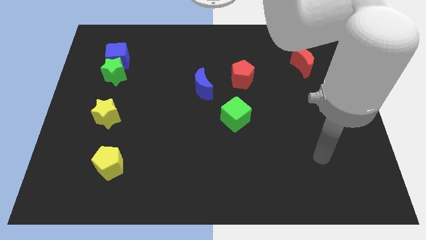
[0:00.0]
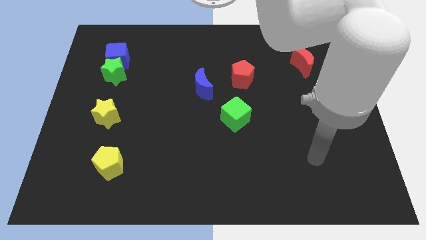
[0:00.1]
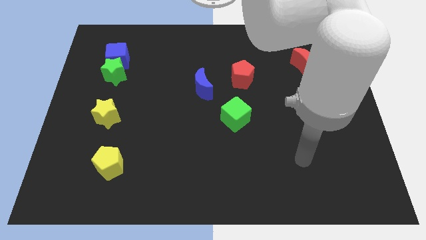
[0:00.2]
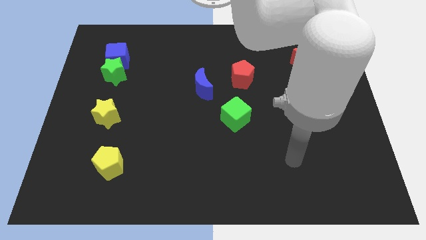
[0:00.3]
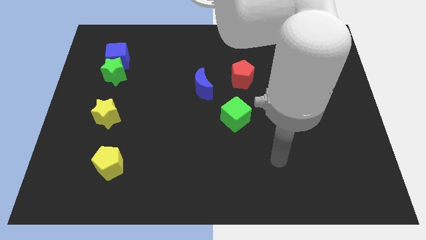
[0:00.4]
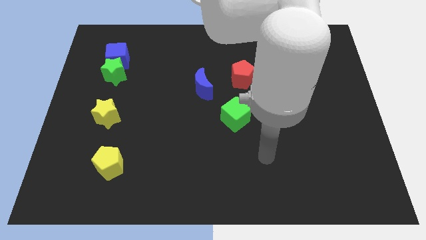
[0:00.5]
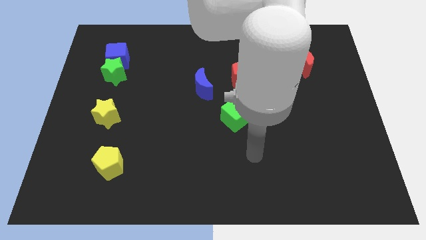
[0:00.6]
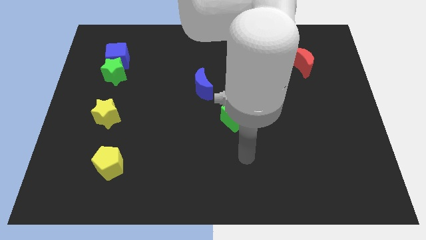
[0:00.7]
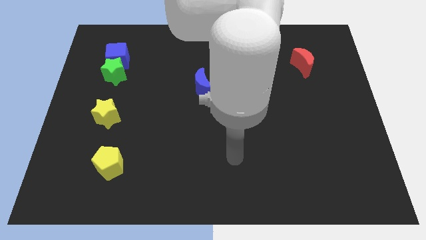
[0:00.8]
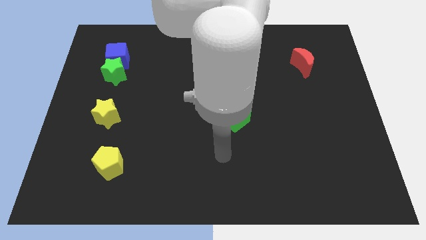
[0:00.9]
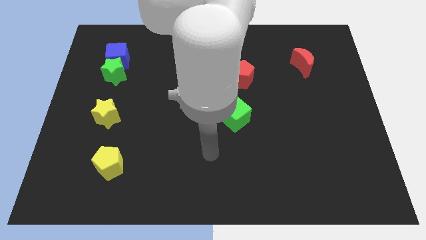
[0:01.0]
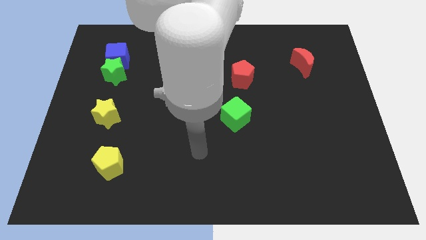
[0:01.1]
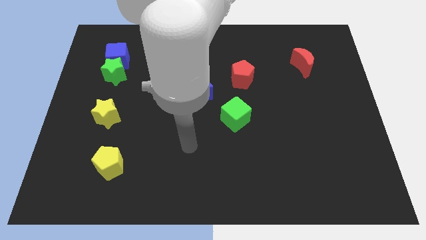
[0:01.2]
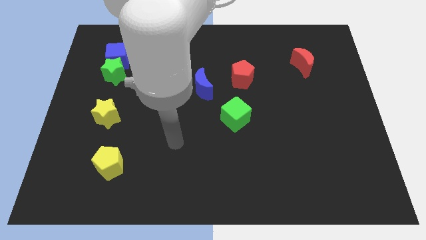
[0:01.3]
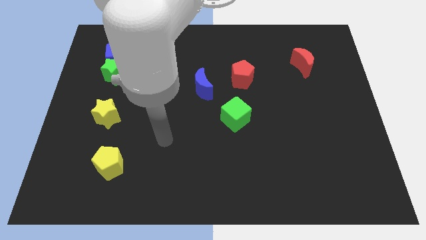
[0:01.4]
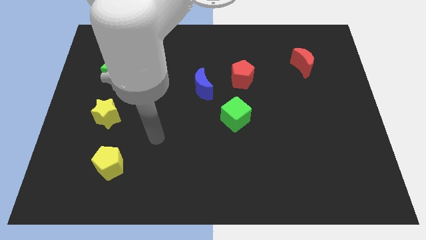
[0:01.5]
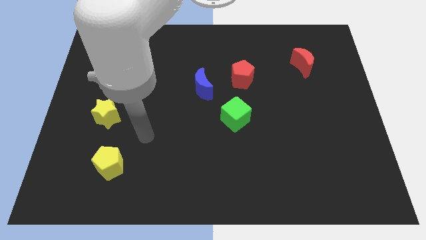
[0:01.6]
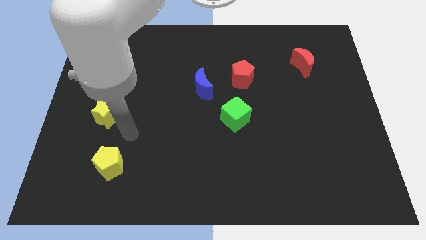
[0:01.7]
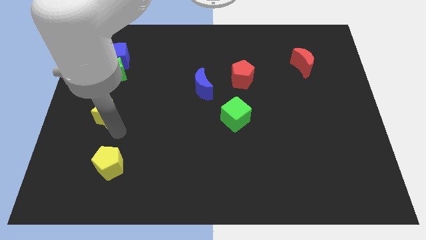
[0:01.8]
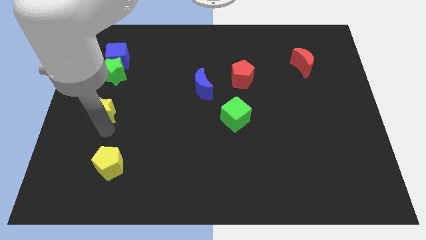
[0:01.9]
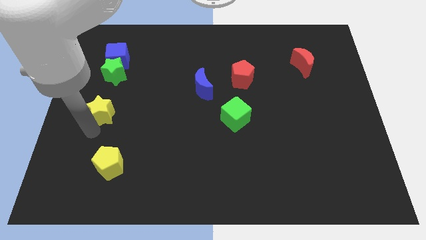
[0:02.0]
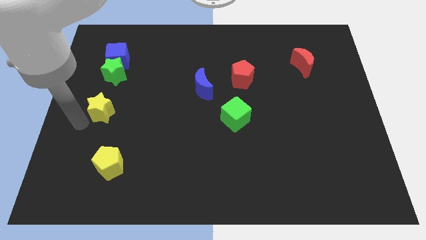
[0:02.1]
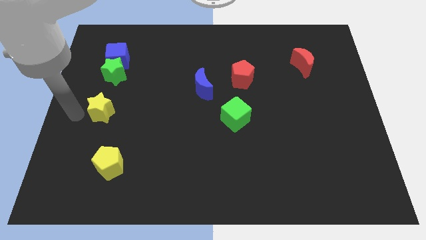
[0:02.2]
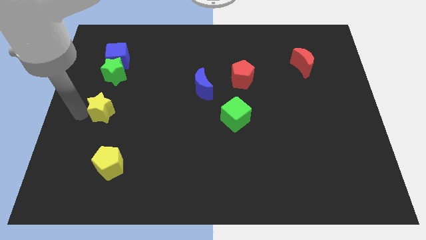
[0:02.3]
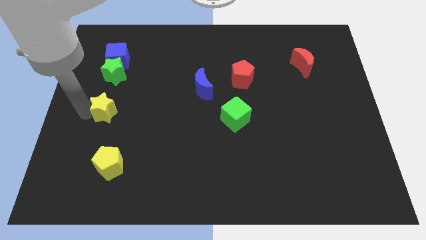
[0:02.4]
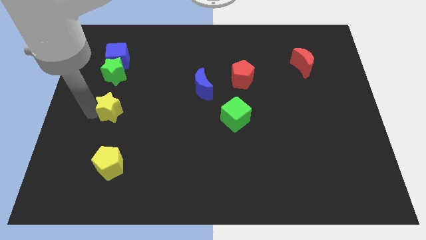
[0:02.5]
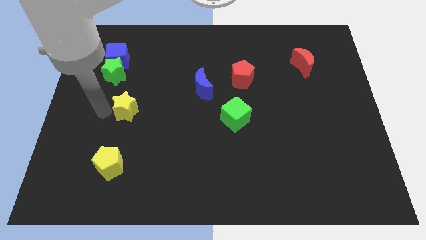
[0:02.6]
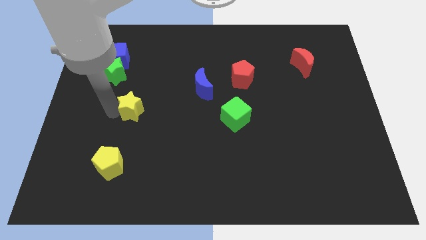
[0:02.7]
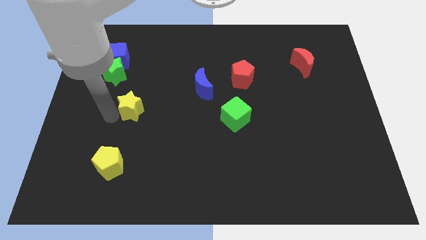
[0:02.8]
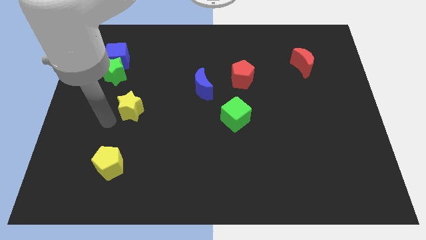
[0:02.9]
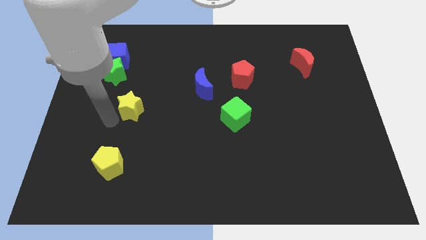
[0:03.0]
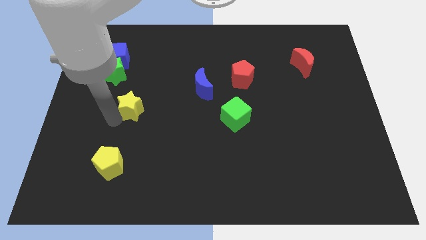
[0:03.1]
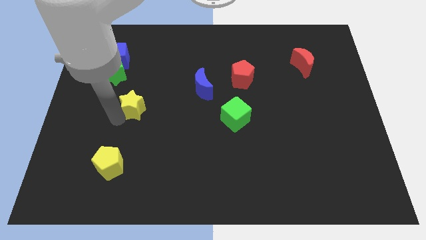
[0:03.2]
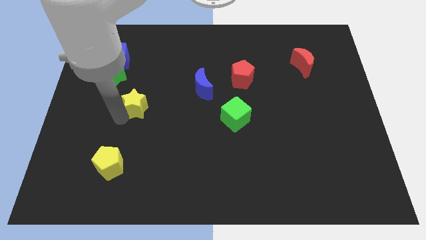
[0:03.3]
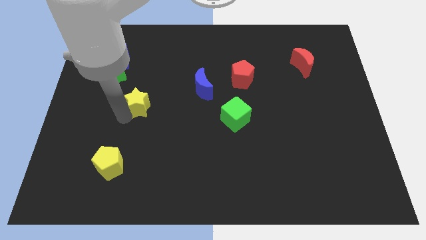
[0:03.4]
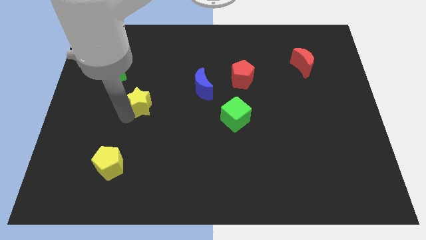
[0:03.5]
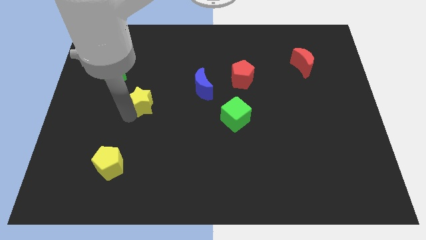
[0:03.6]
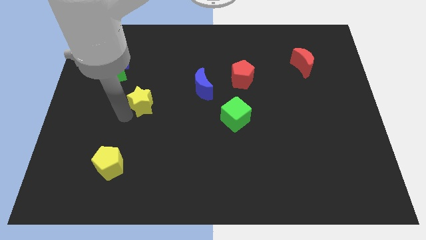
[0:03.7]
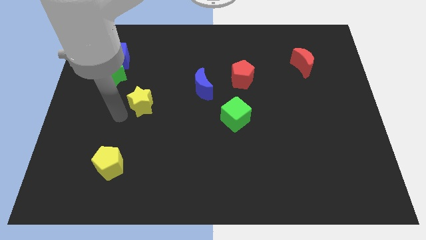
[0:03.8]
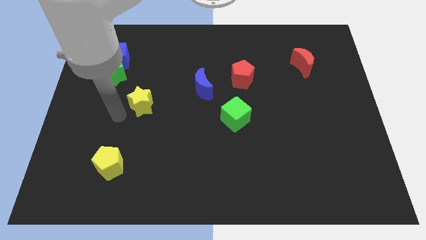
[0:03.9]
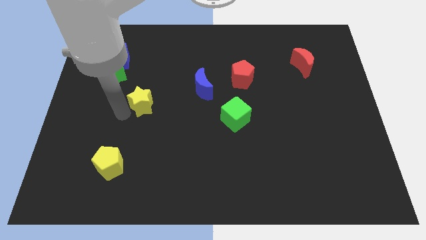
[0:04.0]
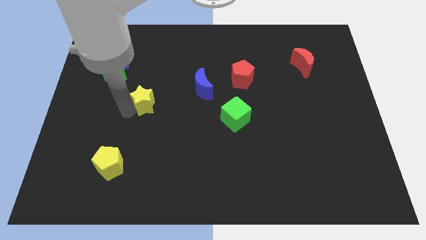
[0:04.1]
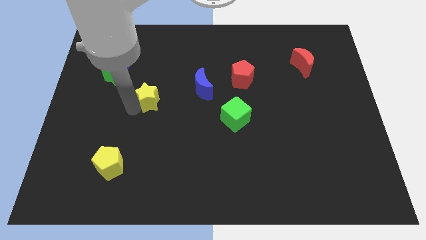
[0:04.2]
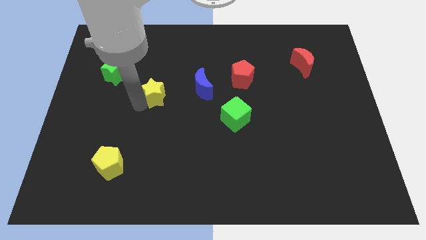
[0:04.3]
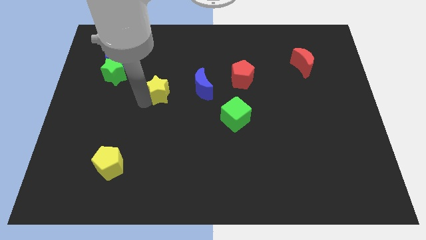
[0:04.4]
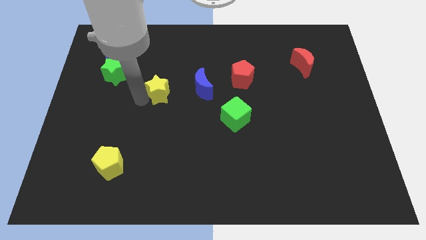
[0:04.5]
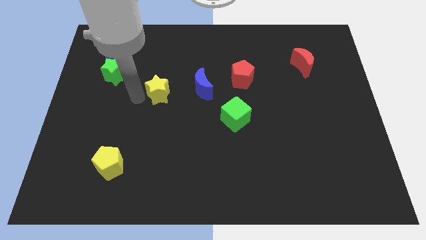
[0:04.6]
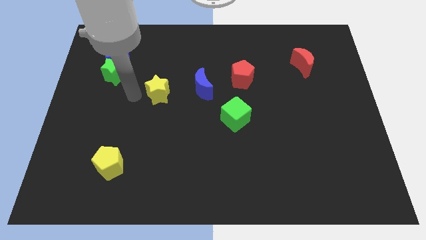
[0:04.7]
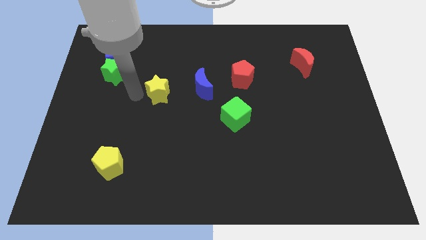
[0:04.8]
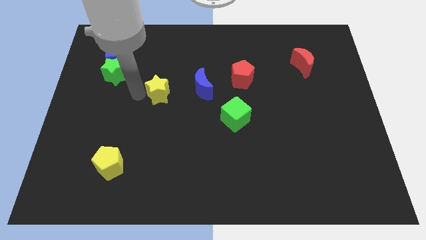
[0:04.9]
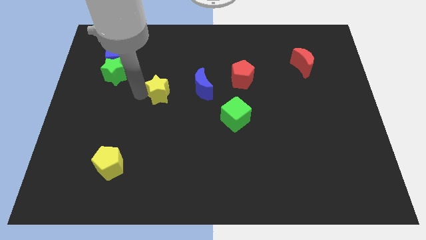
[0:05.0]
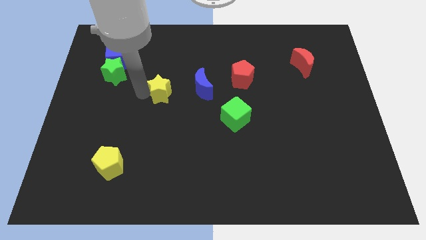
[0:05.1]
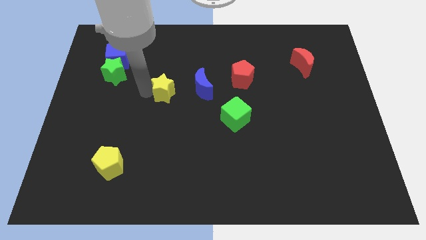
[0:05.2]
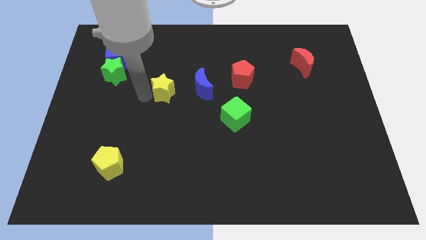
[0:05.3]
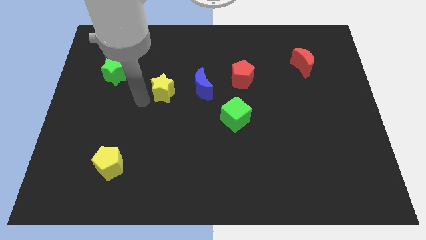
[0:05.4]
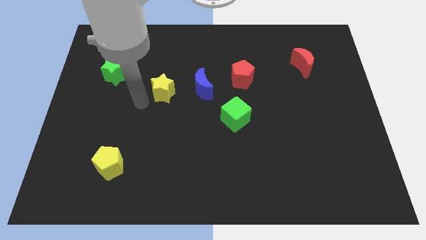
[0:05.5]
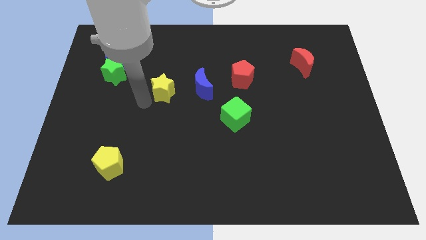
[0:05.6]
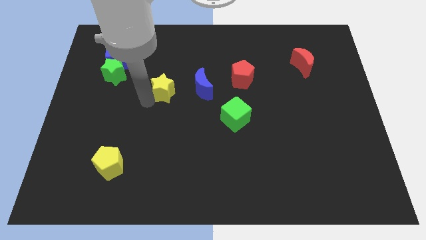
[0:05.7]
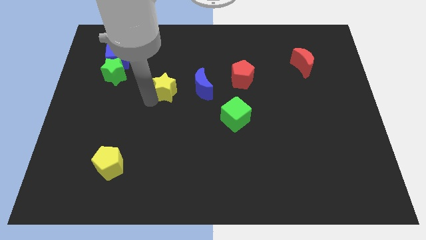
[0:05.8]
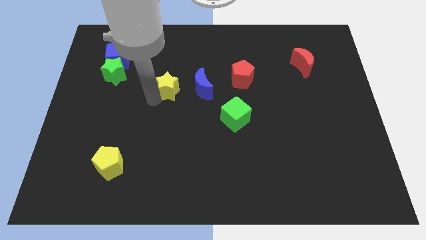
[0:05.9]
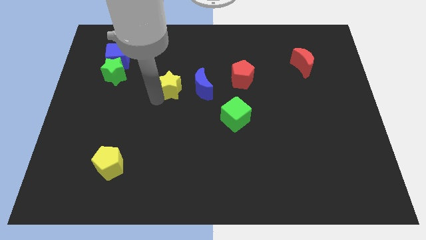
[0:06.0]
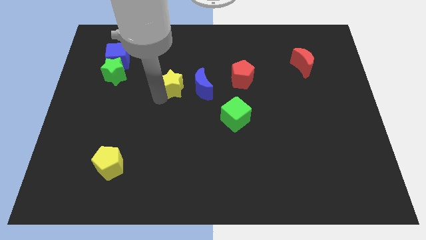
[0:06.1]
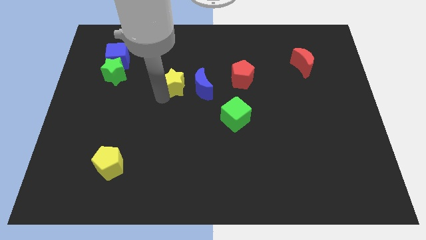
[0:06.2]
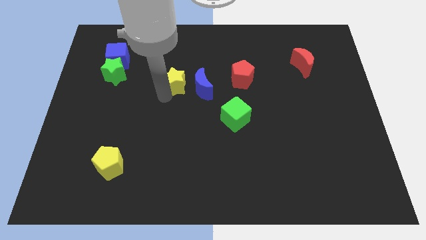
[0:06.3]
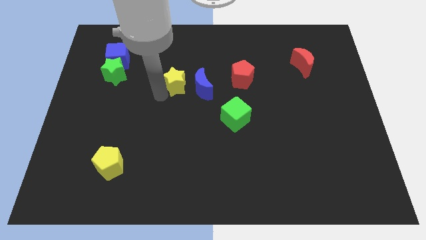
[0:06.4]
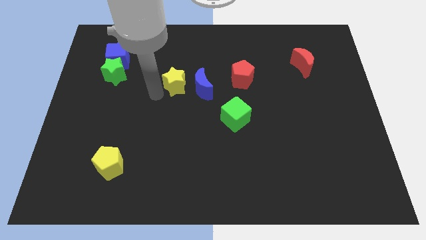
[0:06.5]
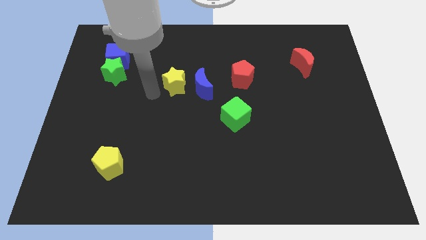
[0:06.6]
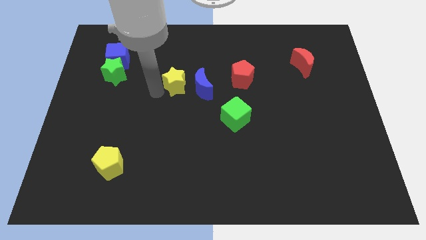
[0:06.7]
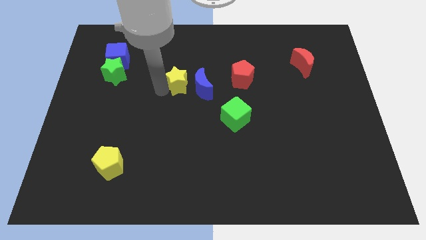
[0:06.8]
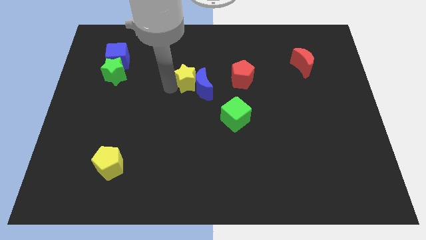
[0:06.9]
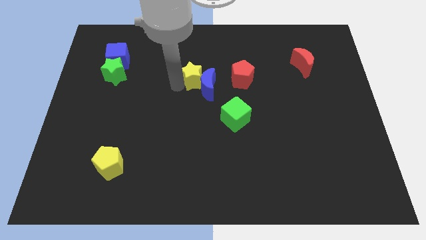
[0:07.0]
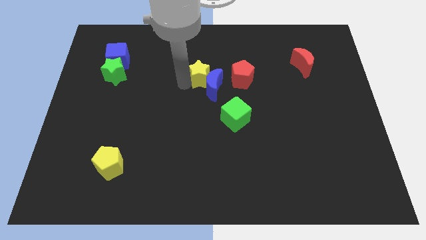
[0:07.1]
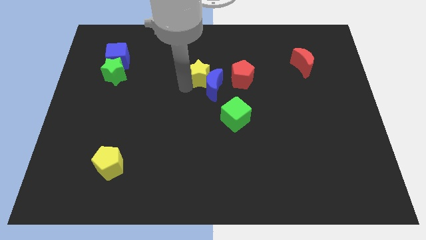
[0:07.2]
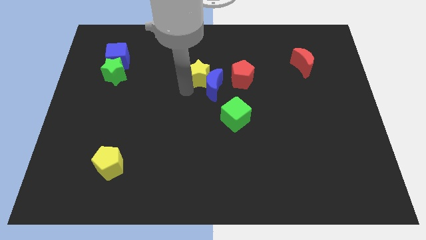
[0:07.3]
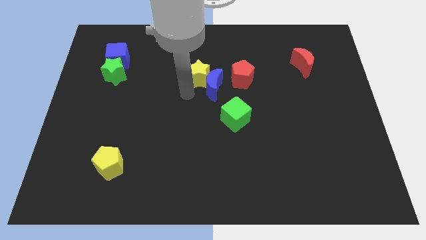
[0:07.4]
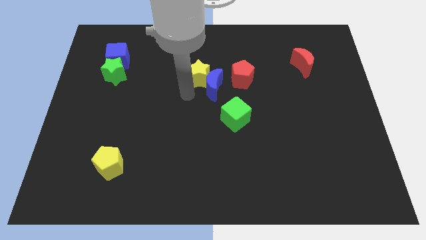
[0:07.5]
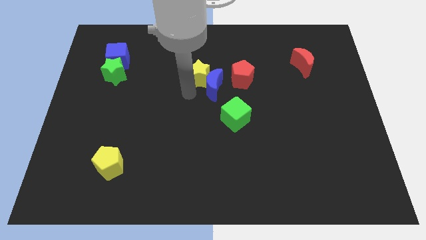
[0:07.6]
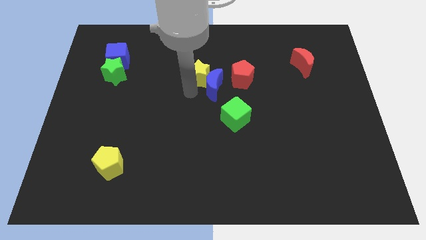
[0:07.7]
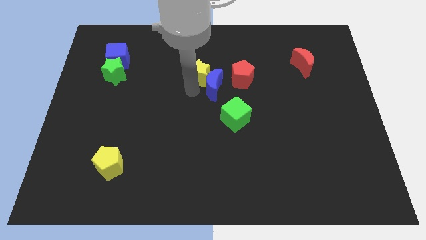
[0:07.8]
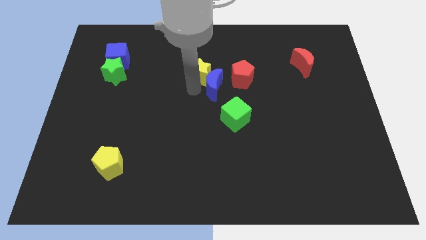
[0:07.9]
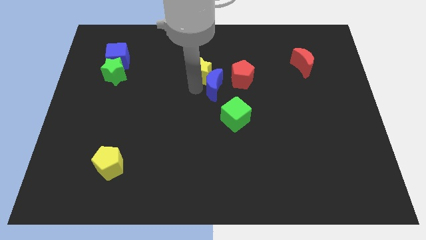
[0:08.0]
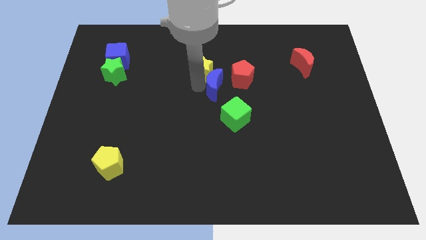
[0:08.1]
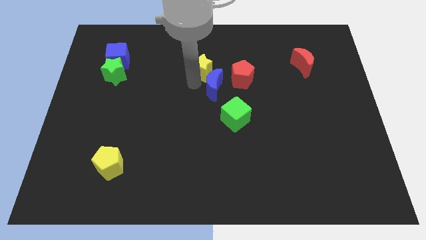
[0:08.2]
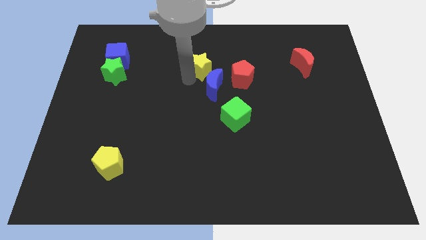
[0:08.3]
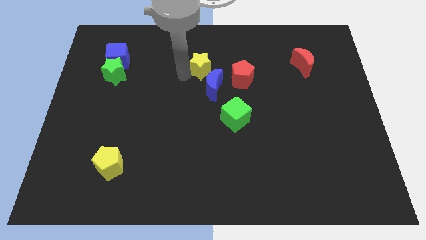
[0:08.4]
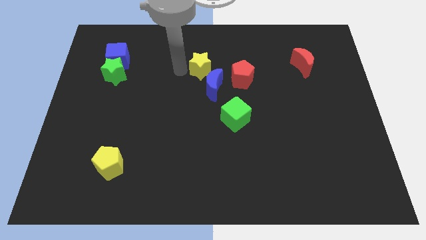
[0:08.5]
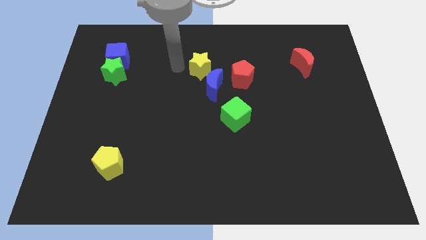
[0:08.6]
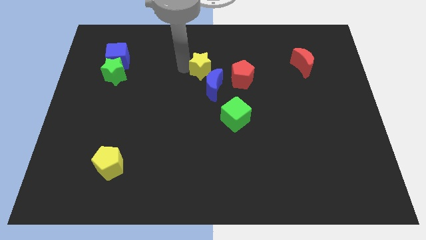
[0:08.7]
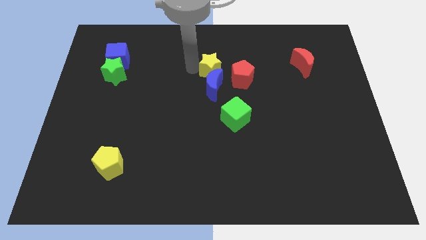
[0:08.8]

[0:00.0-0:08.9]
put the yellow star to the top right of the blue moon
